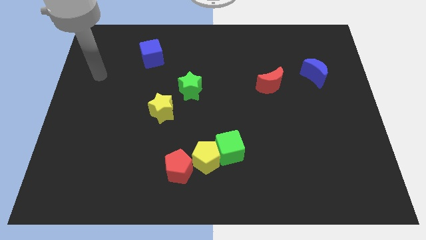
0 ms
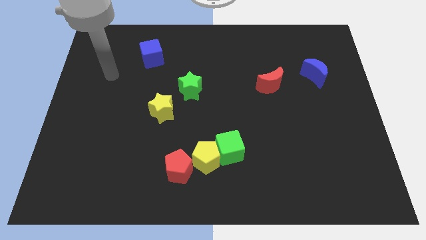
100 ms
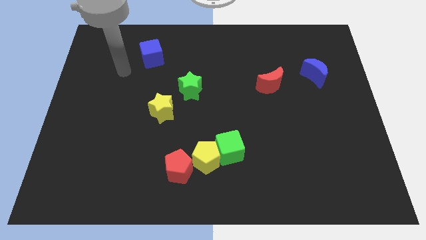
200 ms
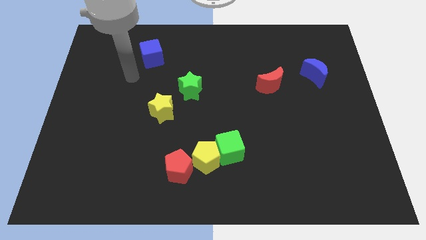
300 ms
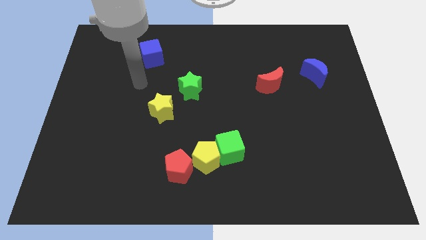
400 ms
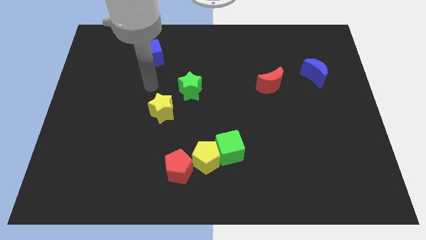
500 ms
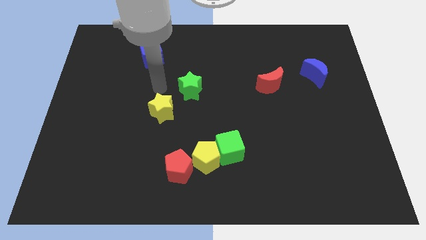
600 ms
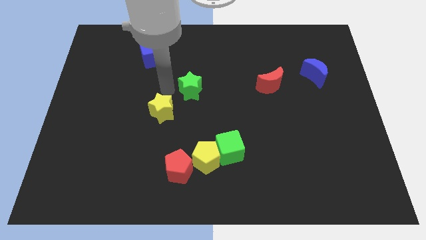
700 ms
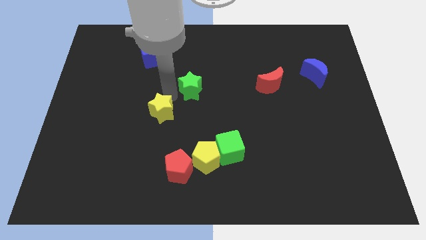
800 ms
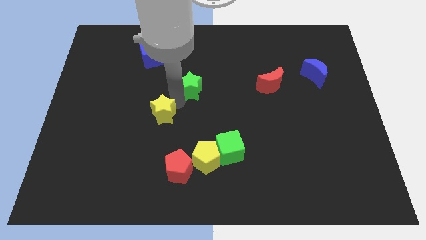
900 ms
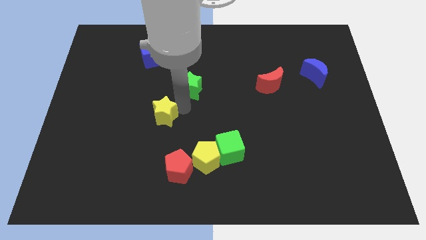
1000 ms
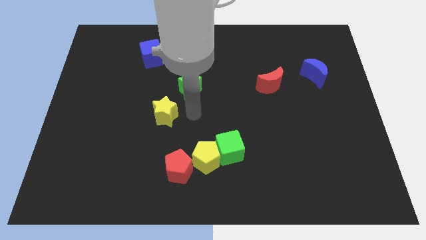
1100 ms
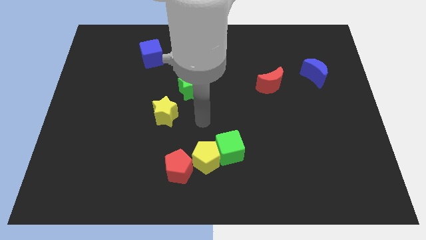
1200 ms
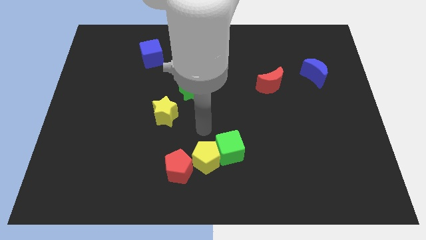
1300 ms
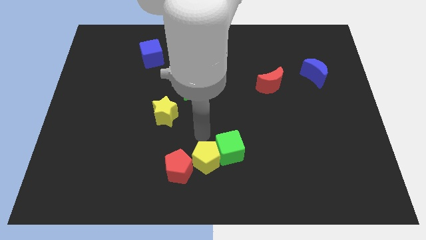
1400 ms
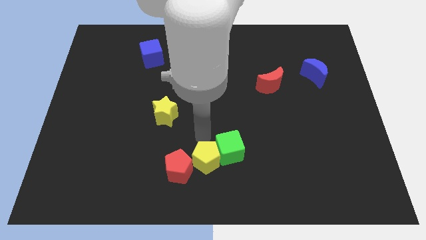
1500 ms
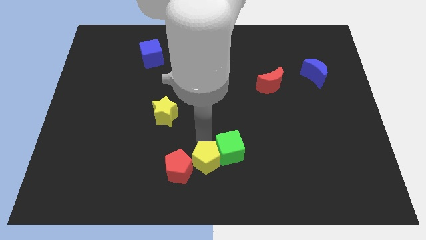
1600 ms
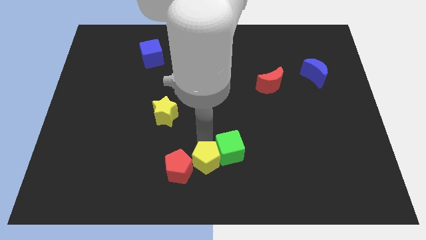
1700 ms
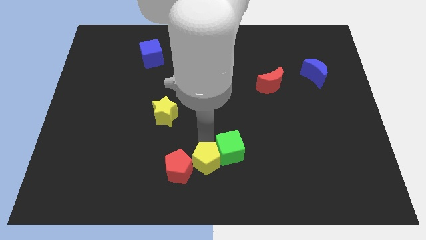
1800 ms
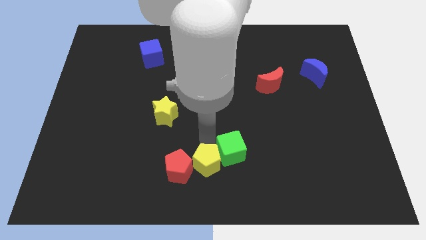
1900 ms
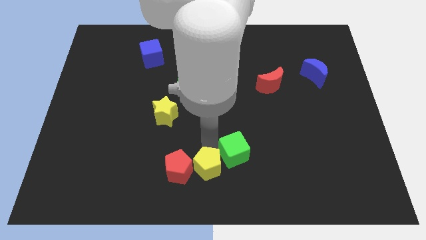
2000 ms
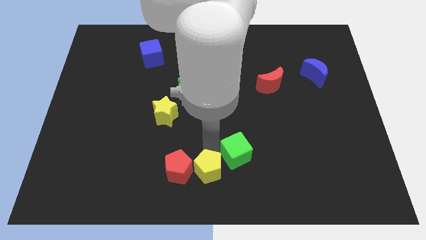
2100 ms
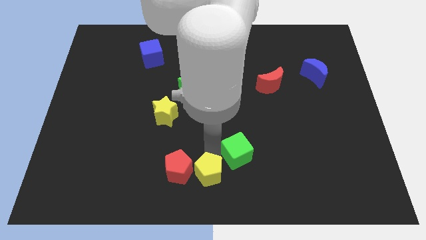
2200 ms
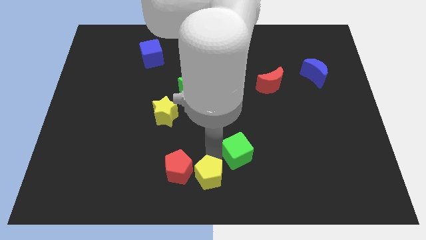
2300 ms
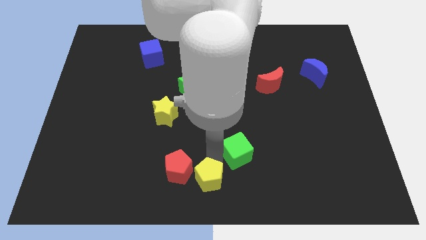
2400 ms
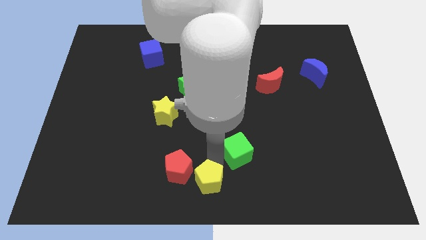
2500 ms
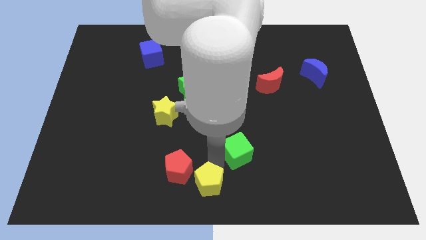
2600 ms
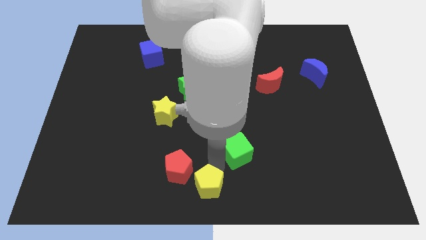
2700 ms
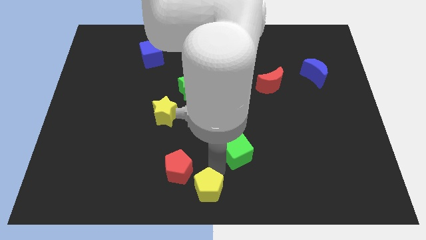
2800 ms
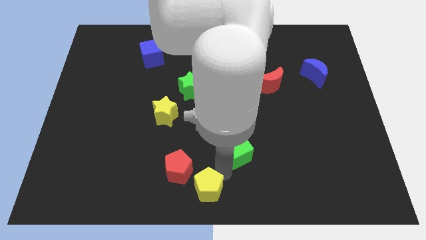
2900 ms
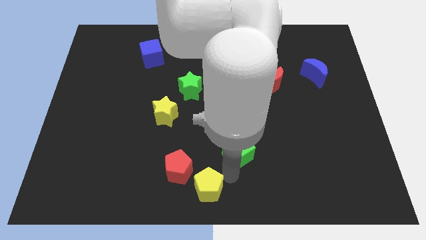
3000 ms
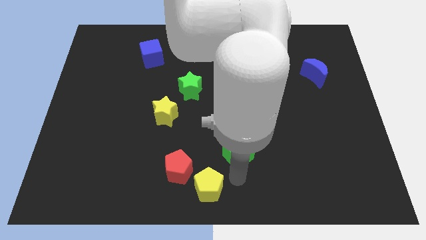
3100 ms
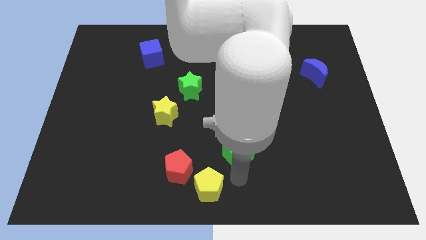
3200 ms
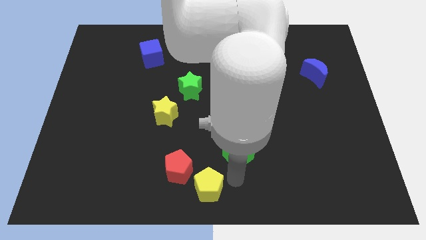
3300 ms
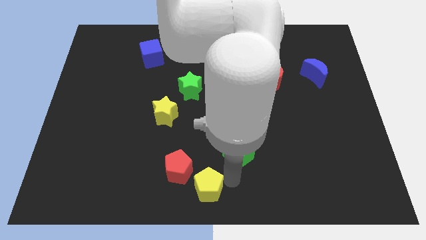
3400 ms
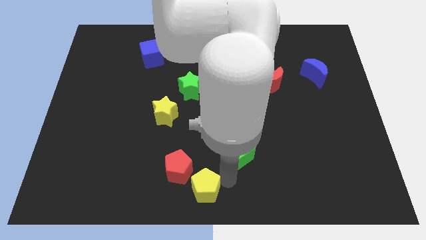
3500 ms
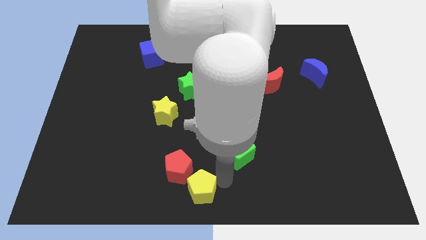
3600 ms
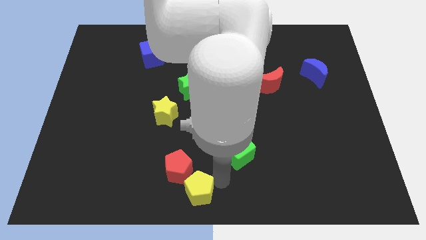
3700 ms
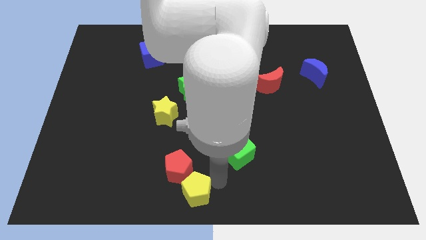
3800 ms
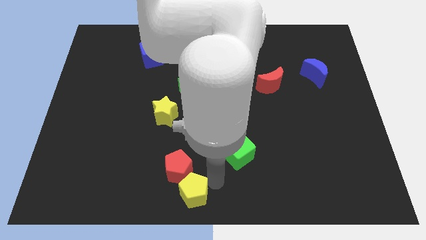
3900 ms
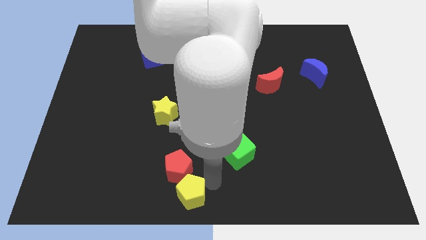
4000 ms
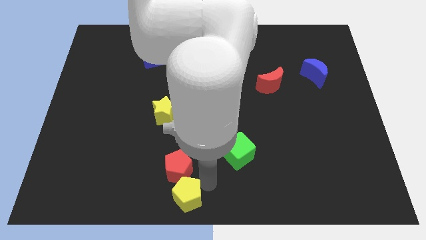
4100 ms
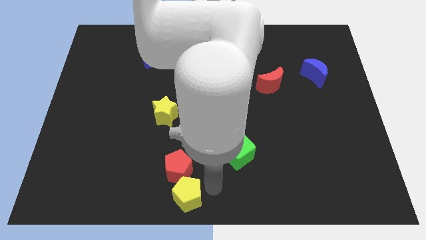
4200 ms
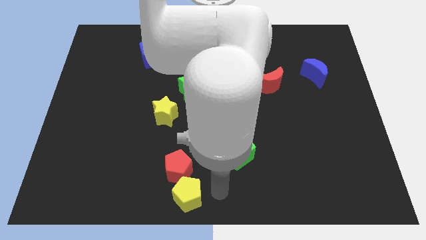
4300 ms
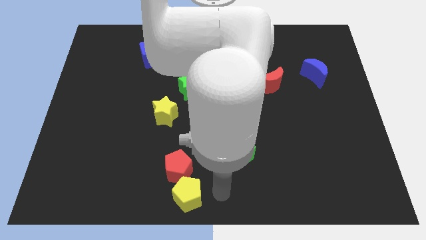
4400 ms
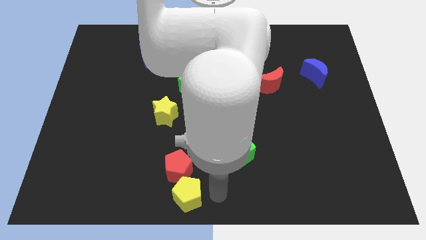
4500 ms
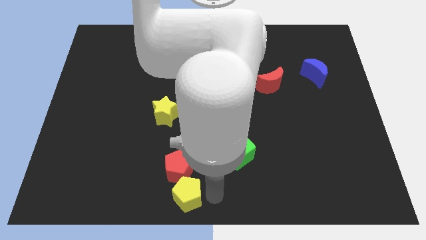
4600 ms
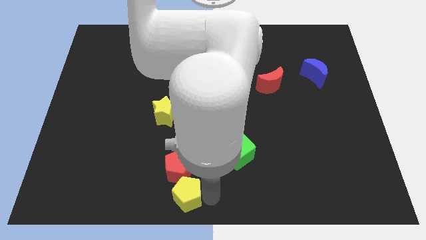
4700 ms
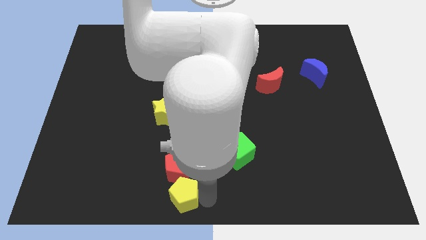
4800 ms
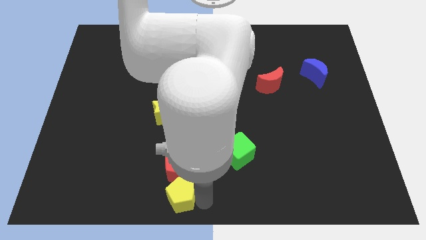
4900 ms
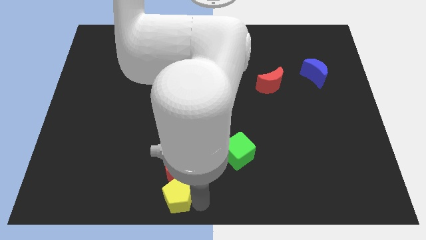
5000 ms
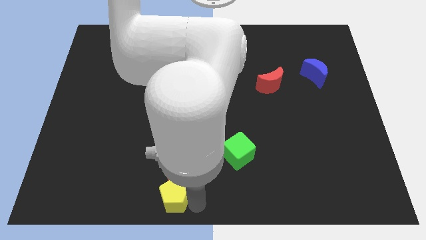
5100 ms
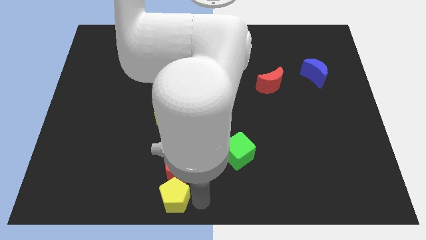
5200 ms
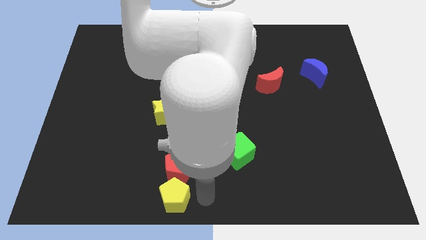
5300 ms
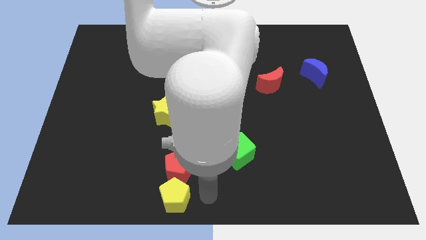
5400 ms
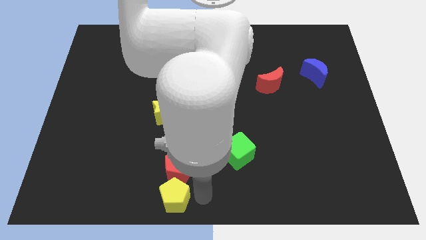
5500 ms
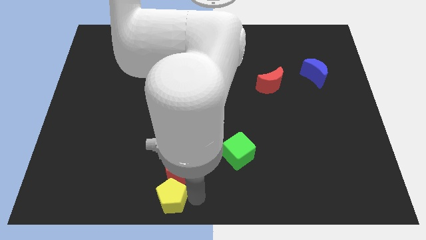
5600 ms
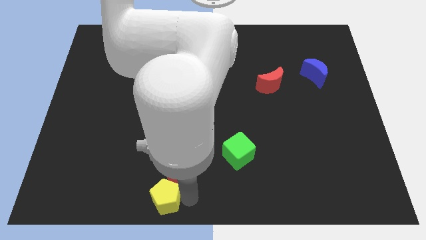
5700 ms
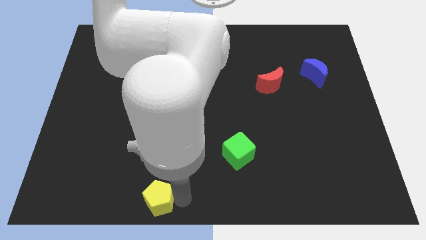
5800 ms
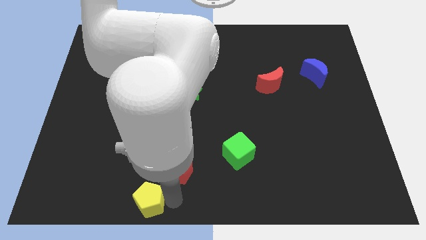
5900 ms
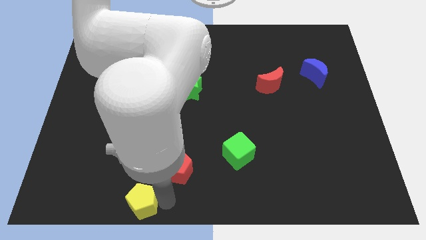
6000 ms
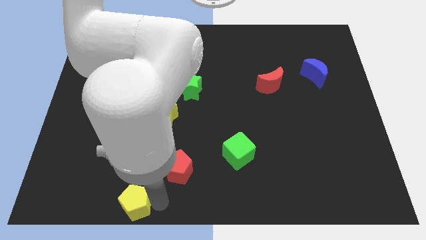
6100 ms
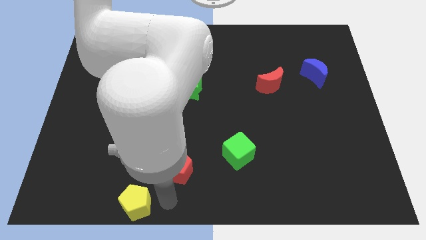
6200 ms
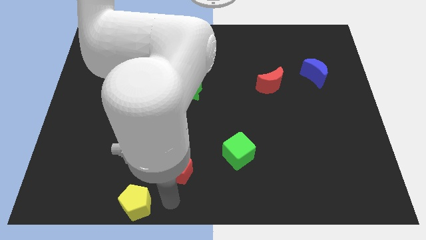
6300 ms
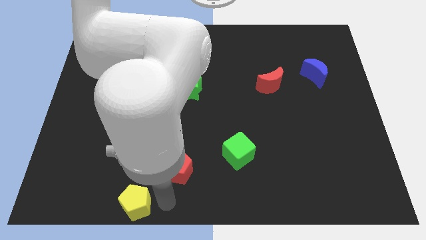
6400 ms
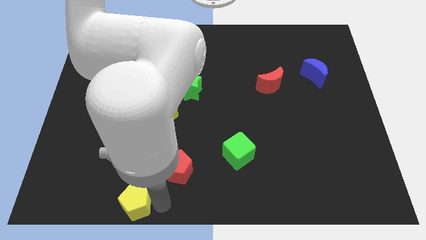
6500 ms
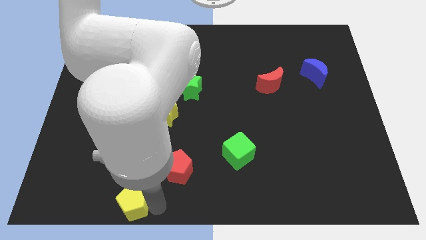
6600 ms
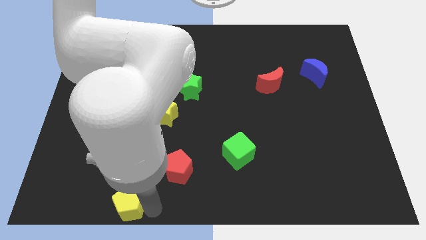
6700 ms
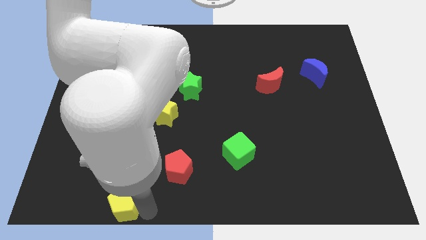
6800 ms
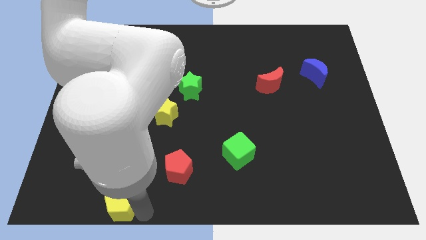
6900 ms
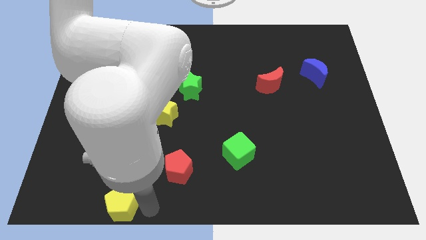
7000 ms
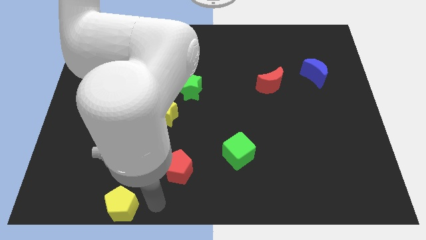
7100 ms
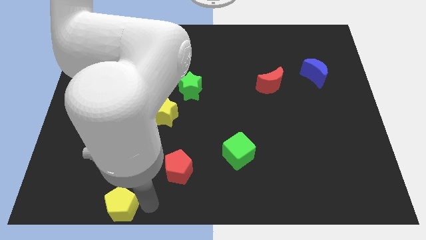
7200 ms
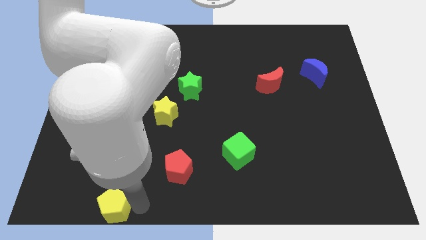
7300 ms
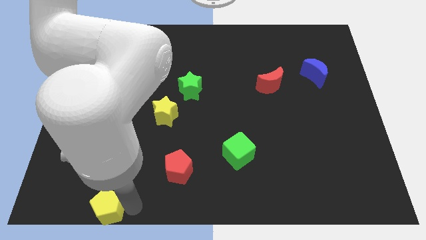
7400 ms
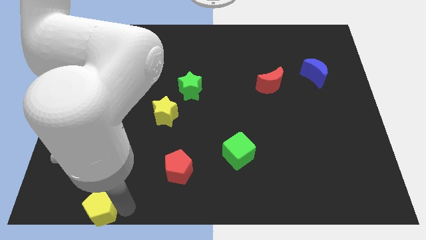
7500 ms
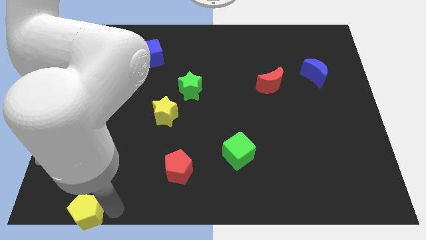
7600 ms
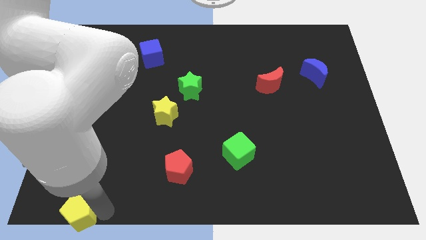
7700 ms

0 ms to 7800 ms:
put the yellow pentagon to the bottom left corner
